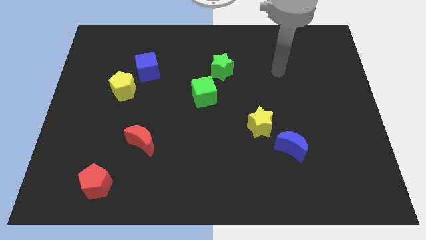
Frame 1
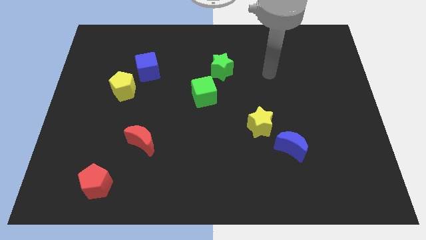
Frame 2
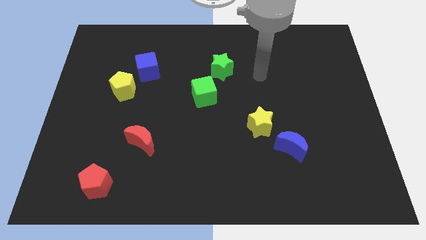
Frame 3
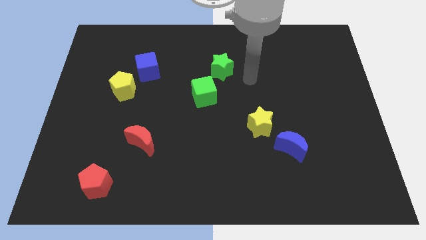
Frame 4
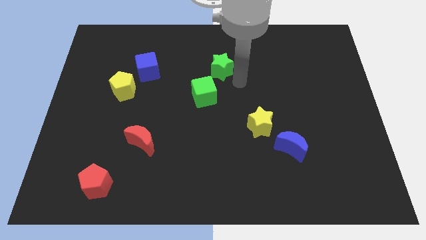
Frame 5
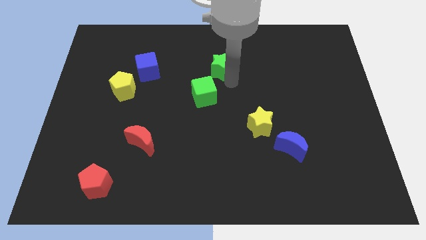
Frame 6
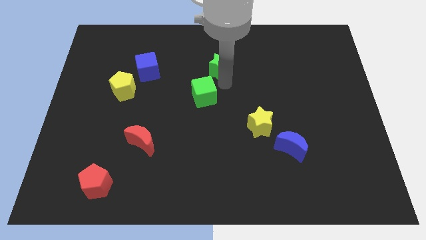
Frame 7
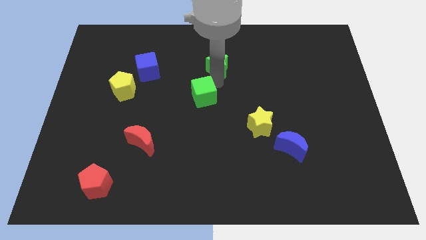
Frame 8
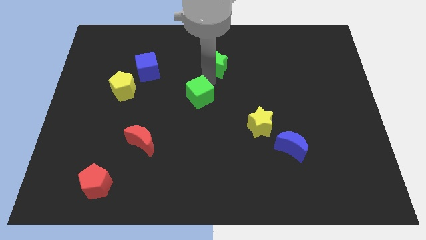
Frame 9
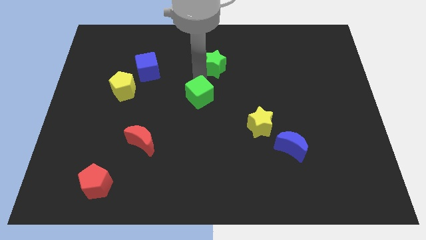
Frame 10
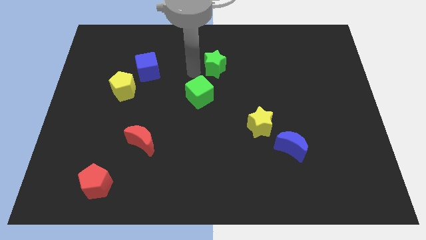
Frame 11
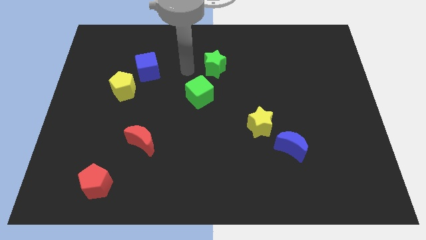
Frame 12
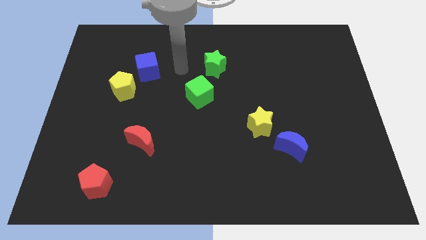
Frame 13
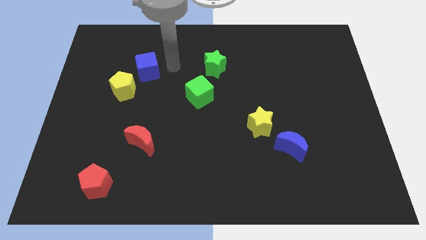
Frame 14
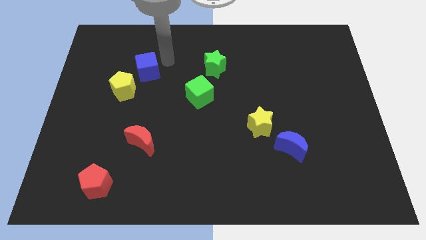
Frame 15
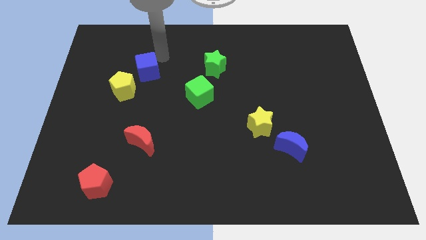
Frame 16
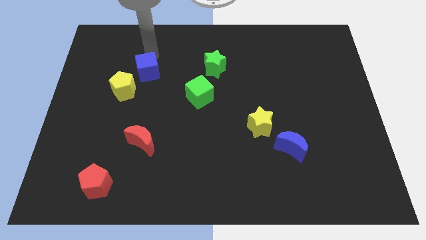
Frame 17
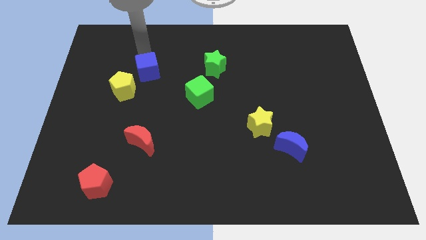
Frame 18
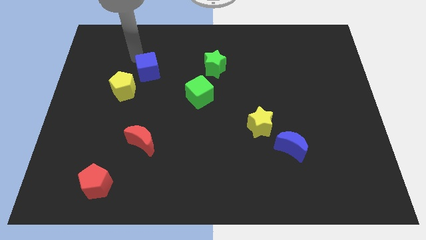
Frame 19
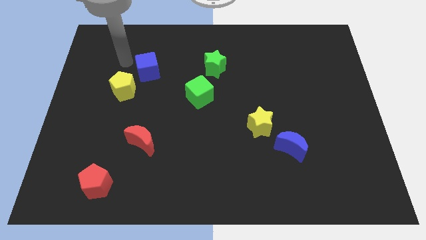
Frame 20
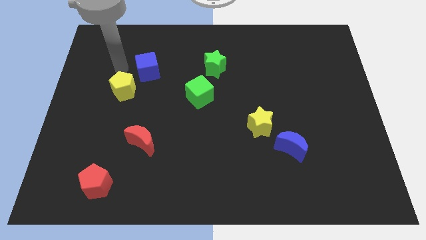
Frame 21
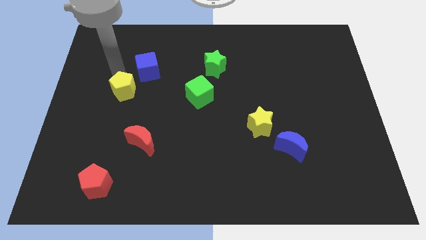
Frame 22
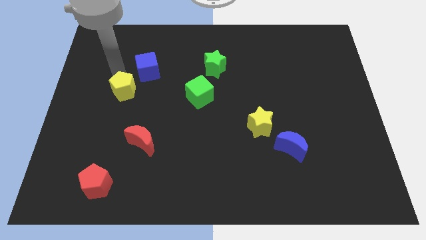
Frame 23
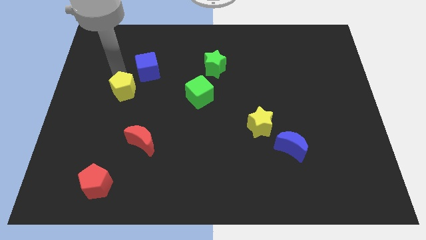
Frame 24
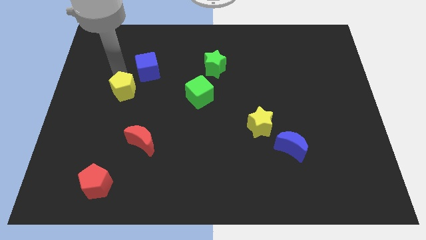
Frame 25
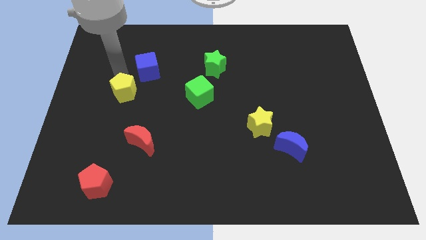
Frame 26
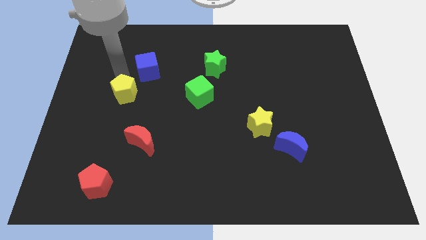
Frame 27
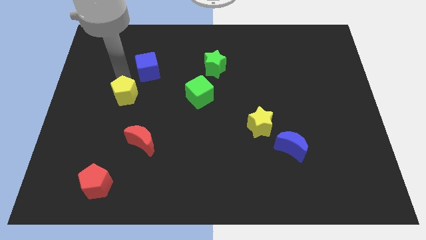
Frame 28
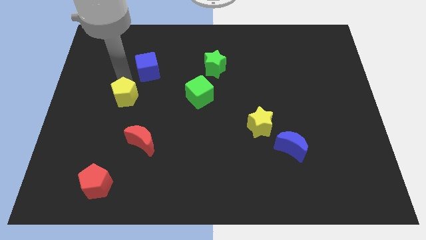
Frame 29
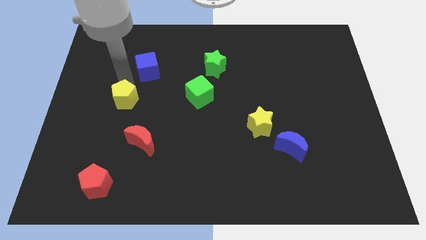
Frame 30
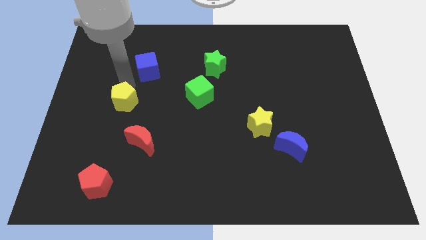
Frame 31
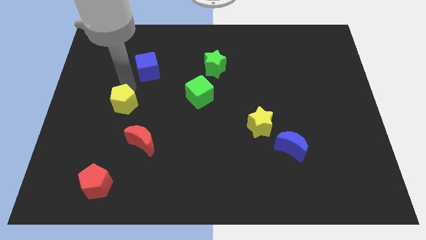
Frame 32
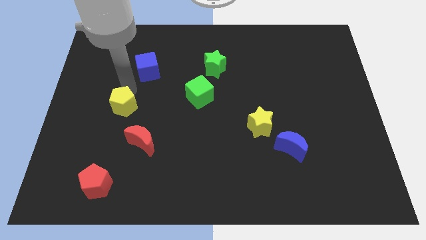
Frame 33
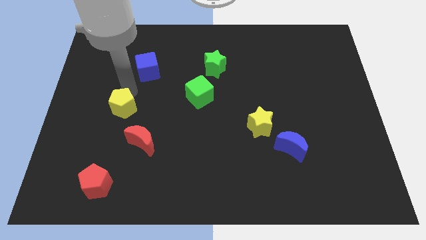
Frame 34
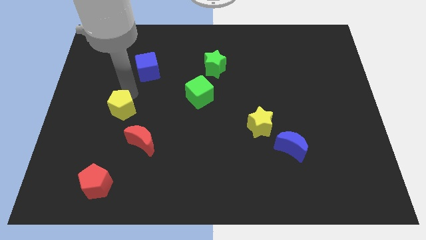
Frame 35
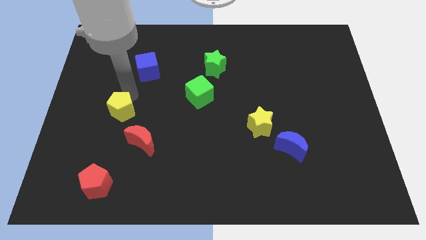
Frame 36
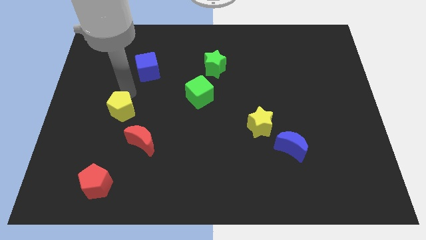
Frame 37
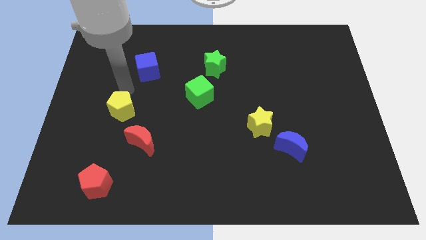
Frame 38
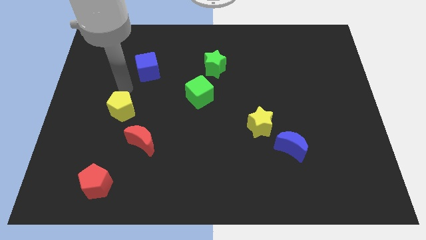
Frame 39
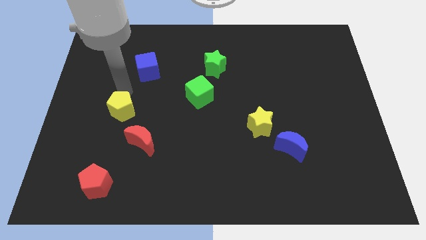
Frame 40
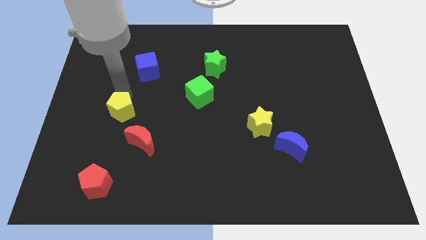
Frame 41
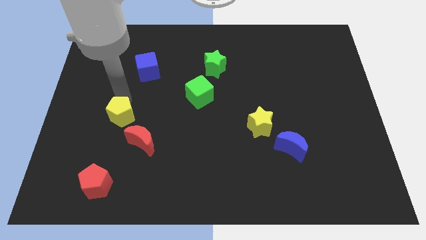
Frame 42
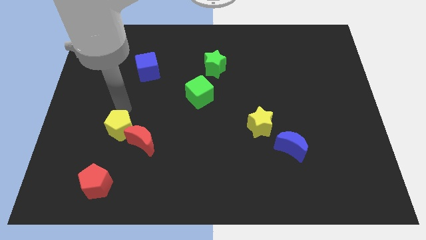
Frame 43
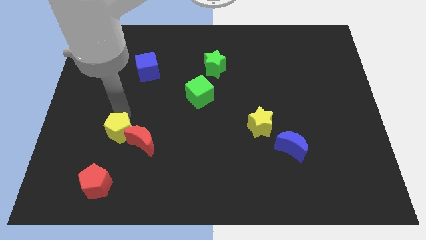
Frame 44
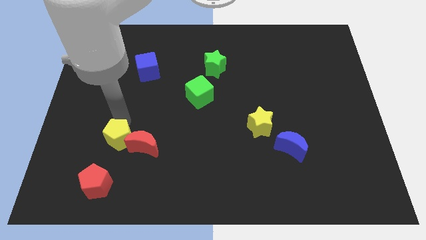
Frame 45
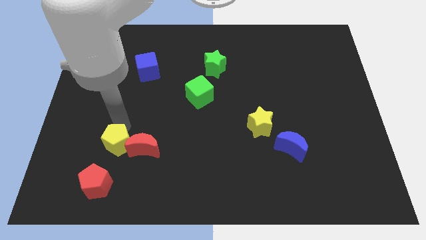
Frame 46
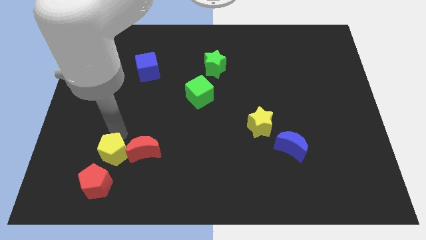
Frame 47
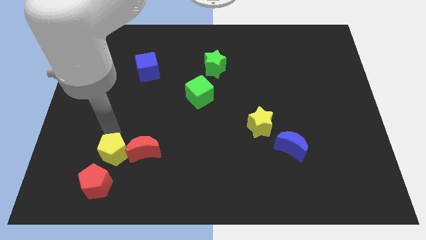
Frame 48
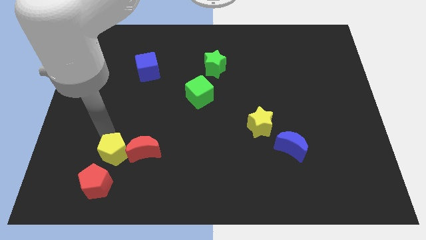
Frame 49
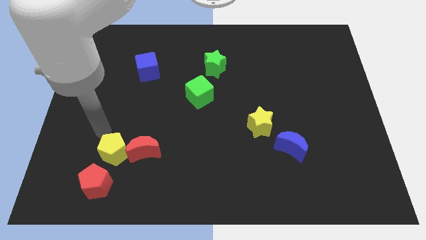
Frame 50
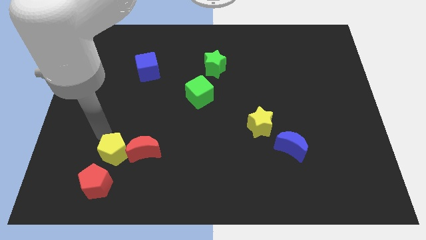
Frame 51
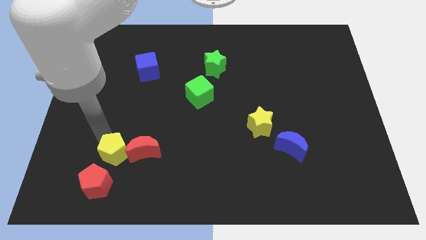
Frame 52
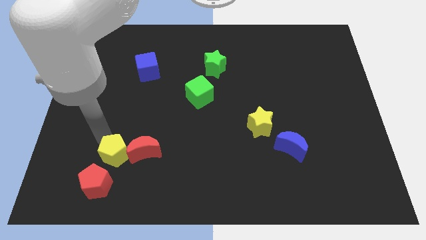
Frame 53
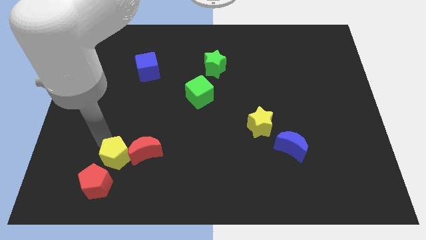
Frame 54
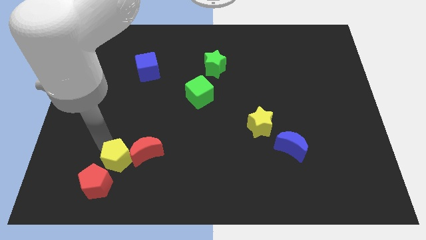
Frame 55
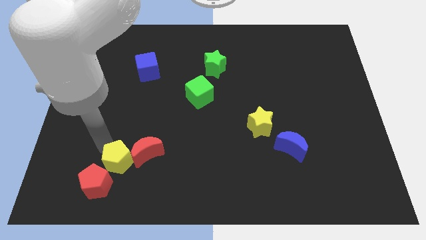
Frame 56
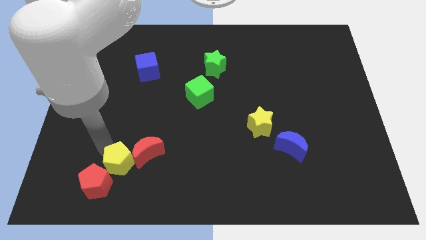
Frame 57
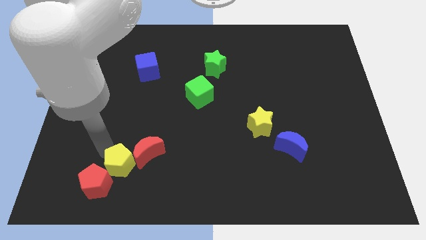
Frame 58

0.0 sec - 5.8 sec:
put the yellow pentagon right of the red pentagon

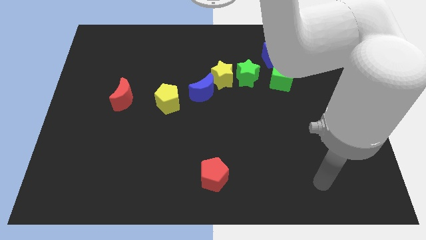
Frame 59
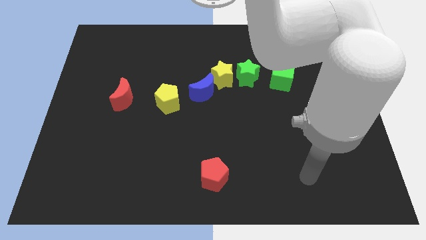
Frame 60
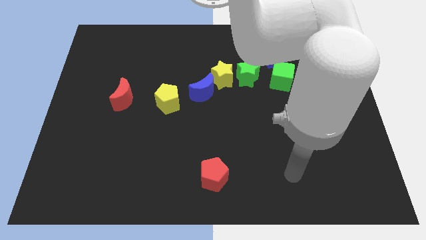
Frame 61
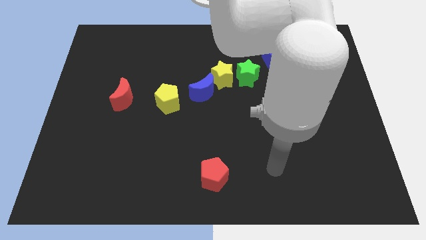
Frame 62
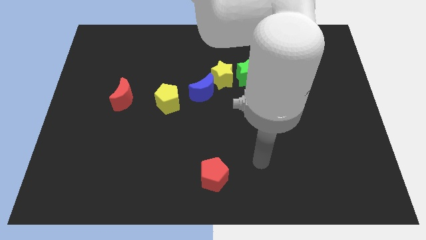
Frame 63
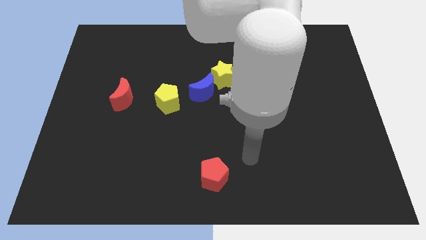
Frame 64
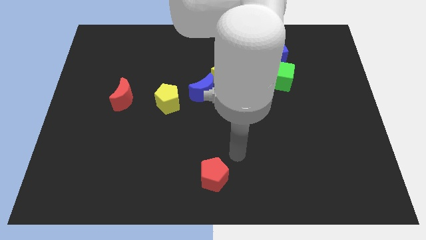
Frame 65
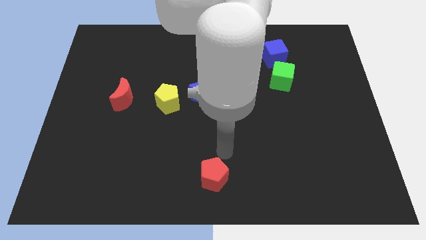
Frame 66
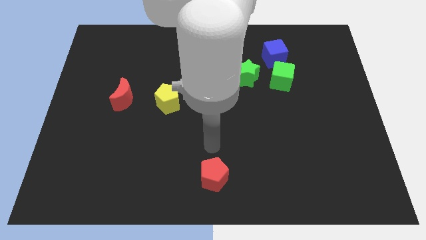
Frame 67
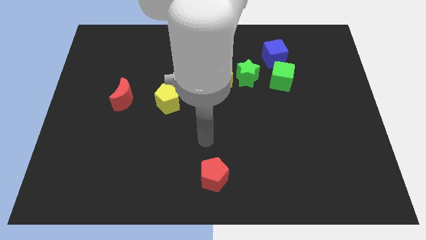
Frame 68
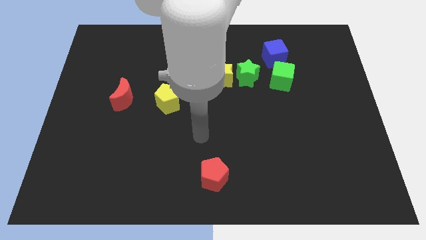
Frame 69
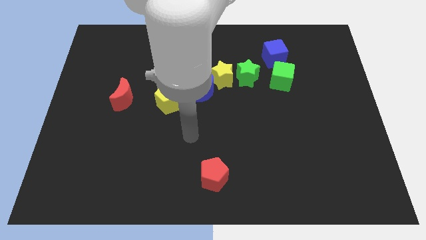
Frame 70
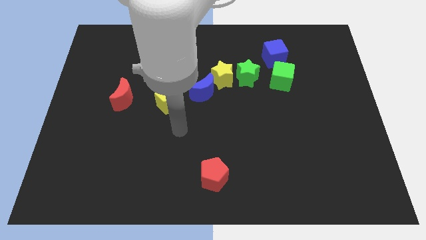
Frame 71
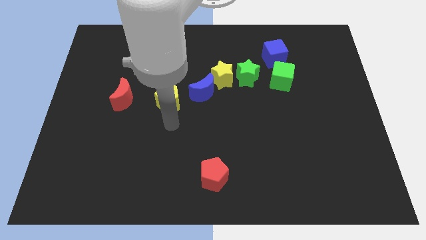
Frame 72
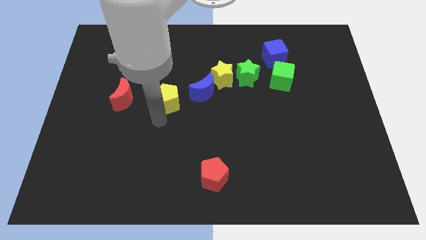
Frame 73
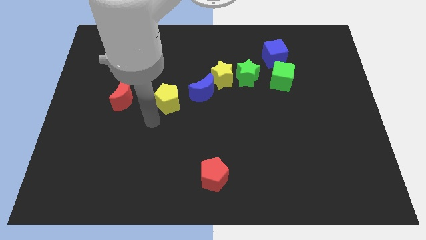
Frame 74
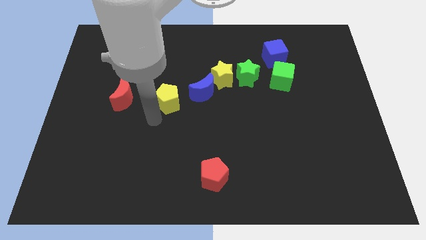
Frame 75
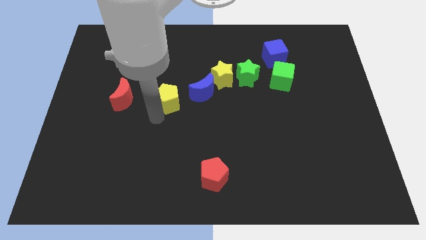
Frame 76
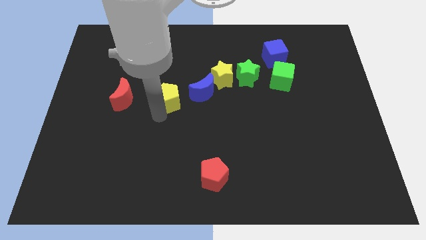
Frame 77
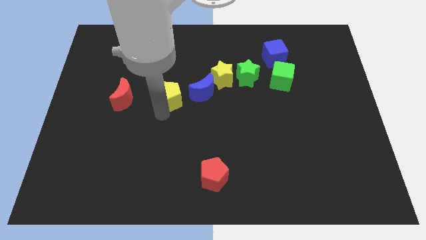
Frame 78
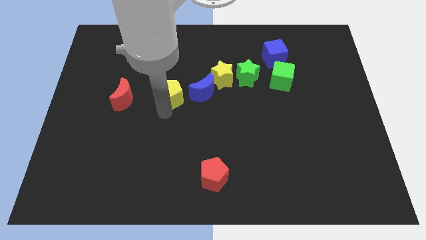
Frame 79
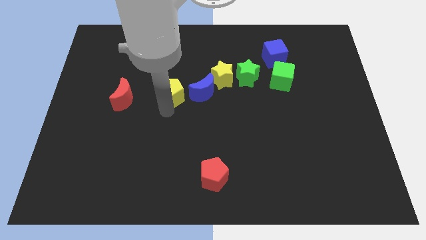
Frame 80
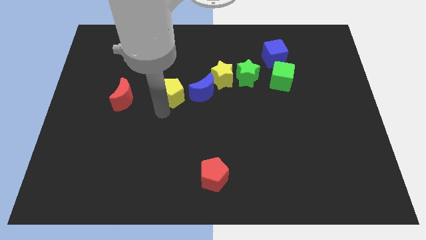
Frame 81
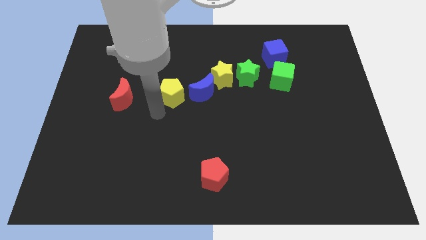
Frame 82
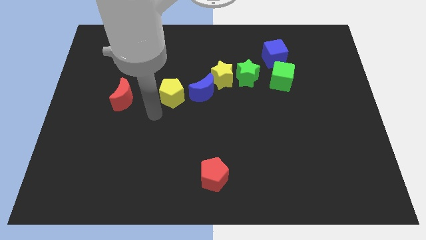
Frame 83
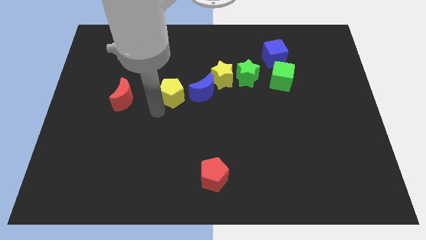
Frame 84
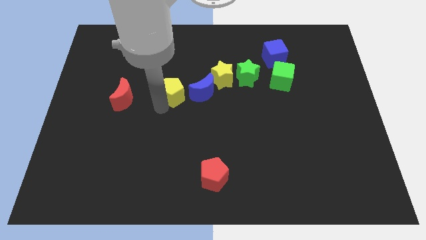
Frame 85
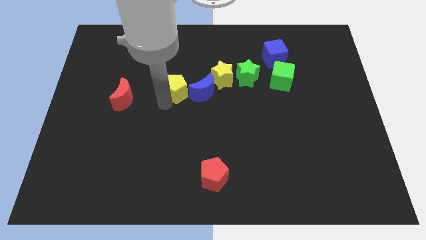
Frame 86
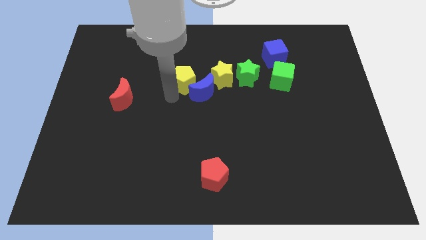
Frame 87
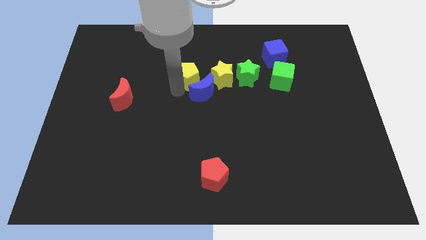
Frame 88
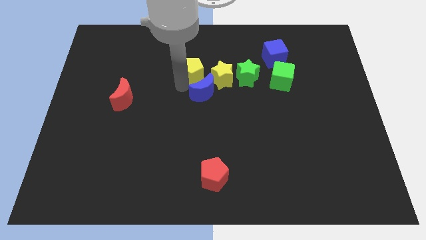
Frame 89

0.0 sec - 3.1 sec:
slide the yellow pentagon to the top left side of the yellow star
